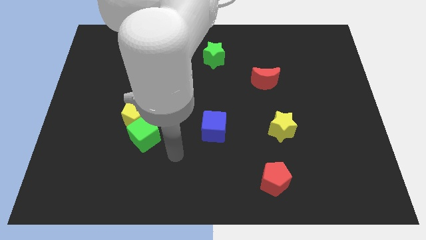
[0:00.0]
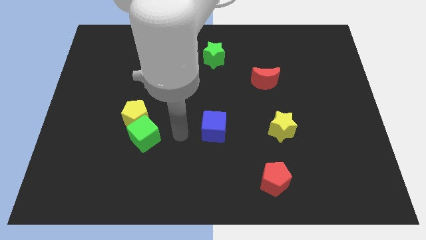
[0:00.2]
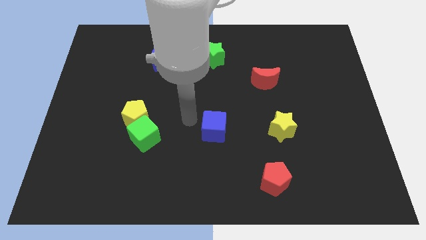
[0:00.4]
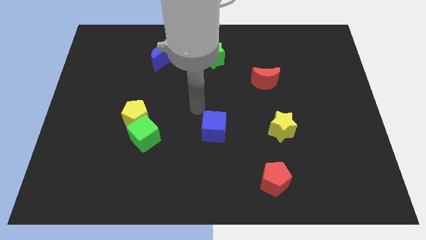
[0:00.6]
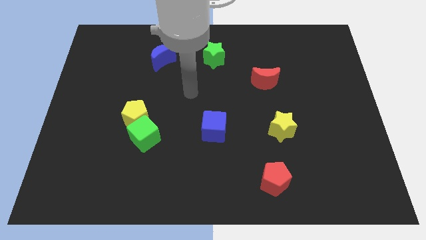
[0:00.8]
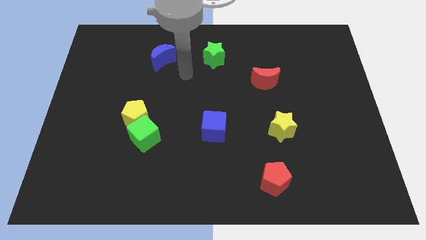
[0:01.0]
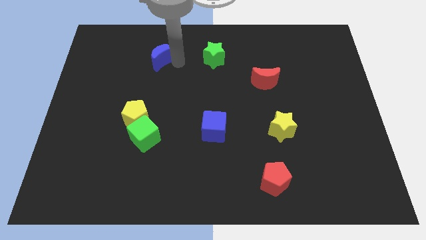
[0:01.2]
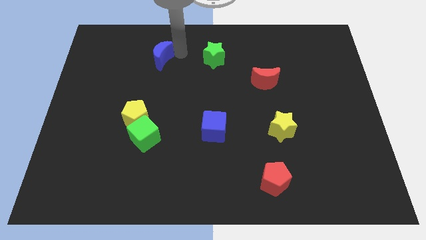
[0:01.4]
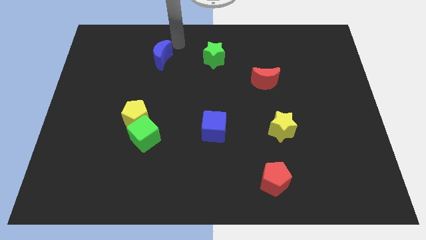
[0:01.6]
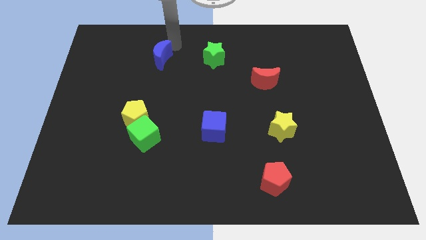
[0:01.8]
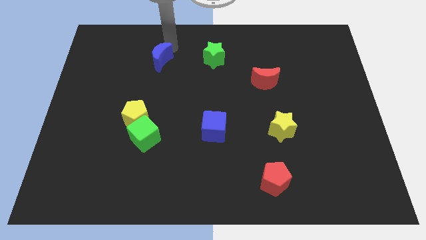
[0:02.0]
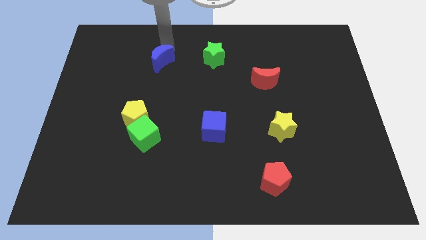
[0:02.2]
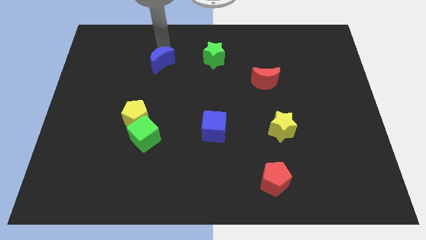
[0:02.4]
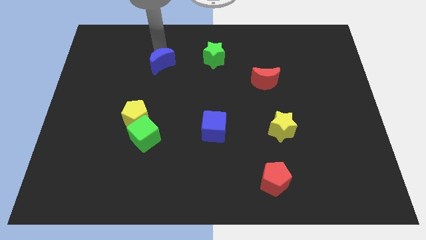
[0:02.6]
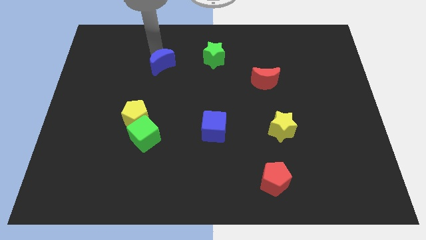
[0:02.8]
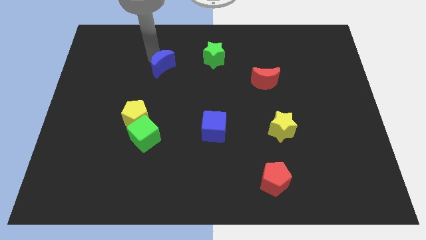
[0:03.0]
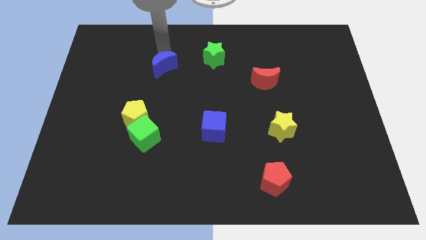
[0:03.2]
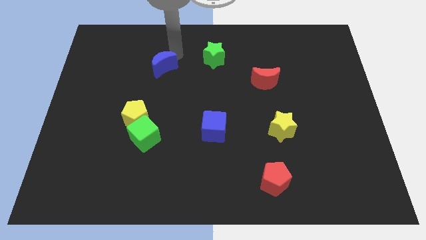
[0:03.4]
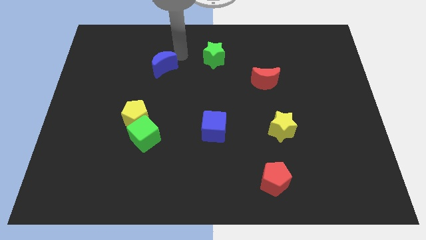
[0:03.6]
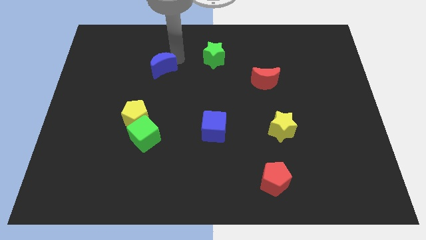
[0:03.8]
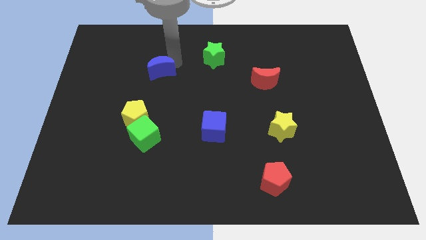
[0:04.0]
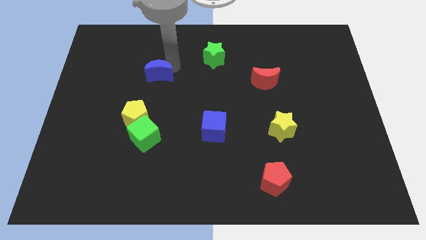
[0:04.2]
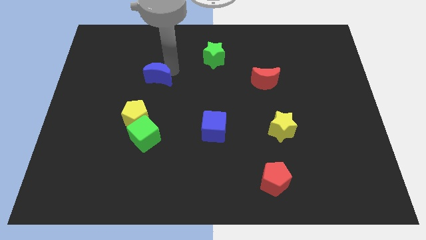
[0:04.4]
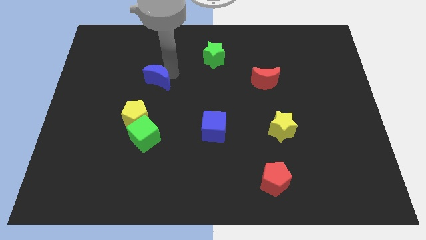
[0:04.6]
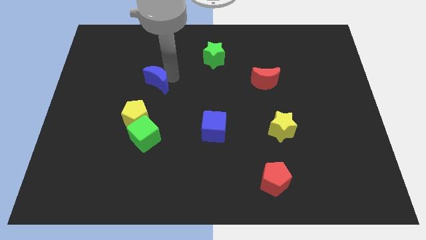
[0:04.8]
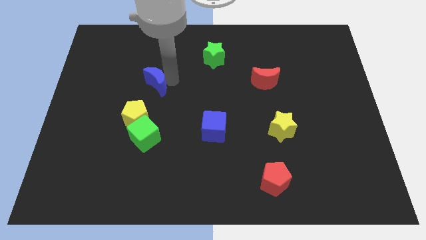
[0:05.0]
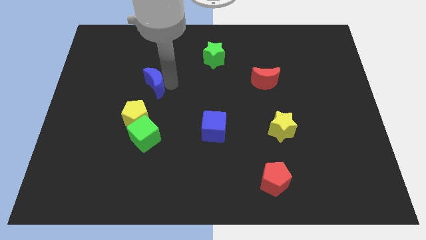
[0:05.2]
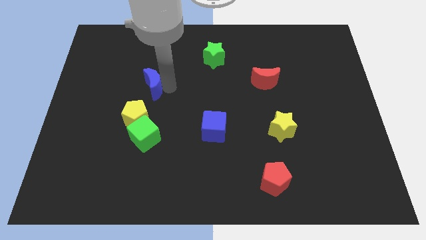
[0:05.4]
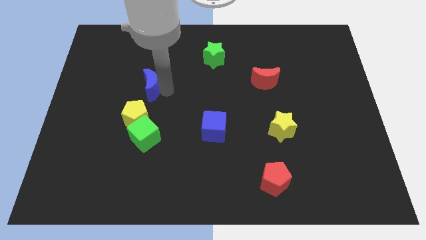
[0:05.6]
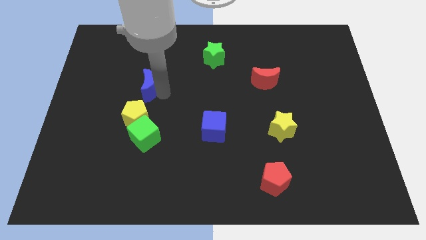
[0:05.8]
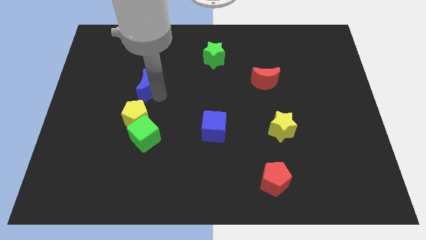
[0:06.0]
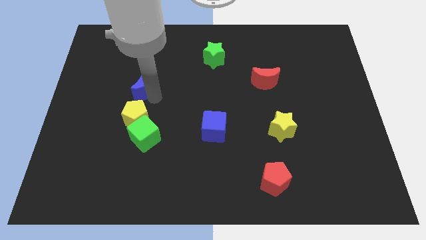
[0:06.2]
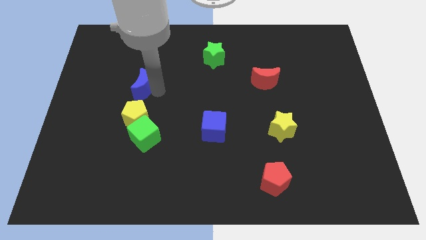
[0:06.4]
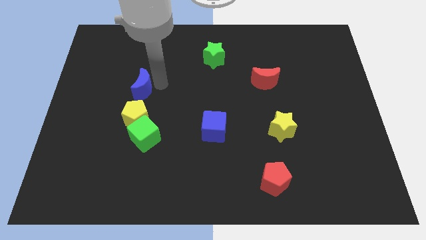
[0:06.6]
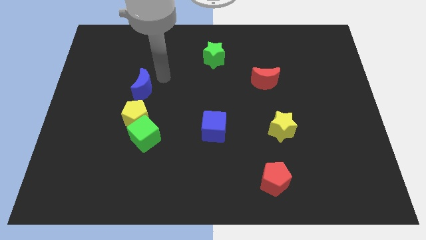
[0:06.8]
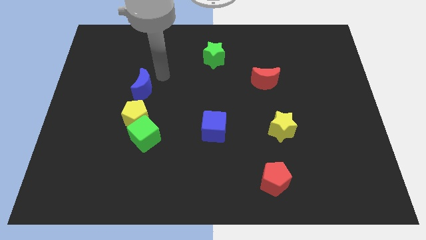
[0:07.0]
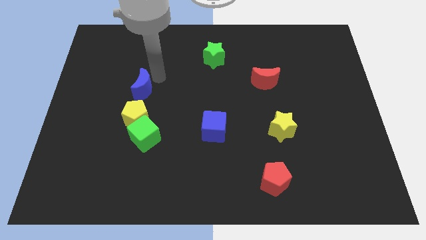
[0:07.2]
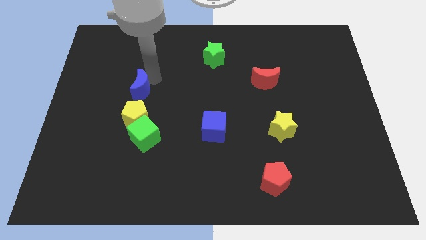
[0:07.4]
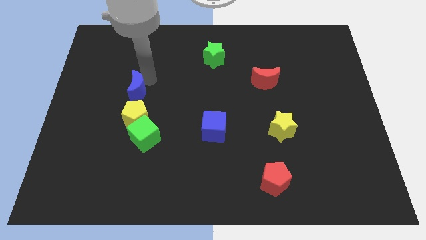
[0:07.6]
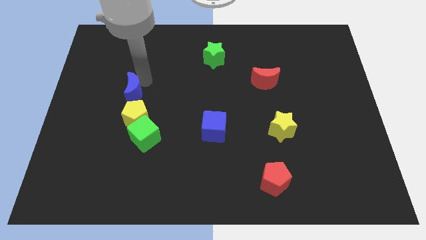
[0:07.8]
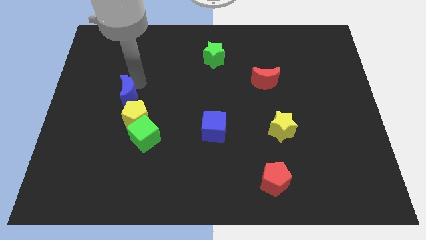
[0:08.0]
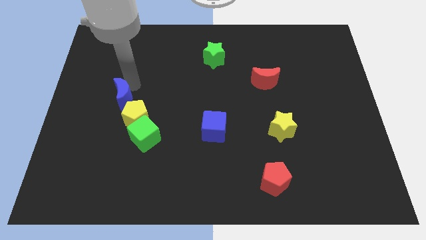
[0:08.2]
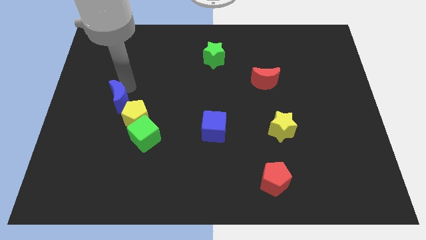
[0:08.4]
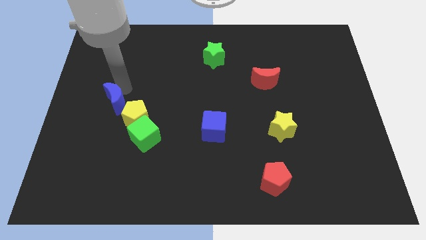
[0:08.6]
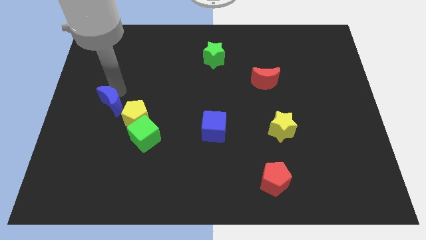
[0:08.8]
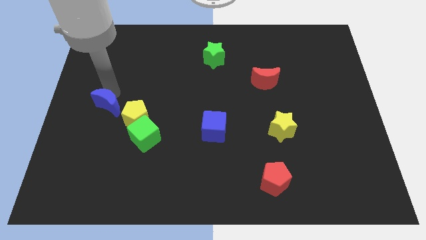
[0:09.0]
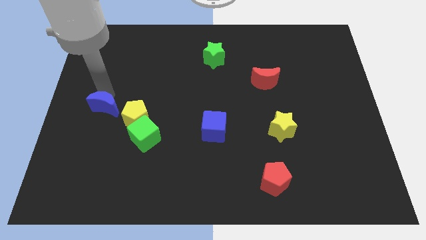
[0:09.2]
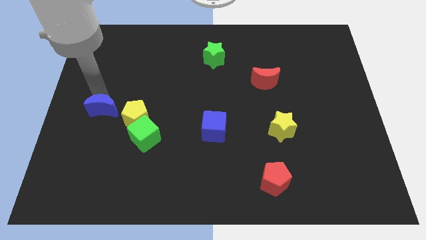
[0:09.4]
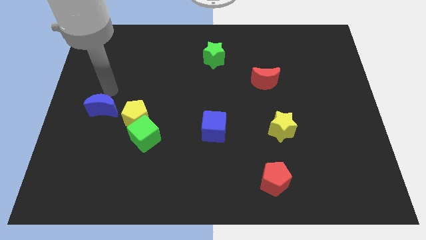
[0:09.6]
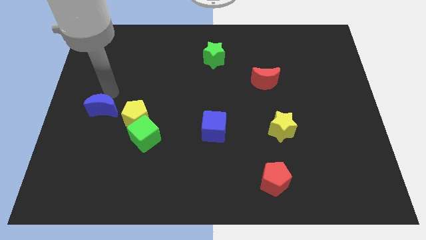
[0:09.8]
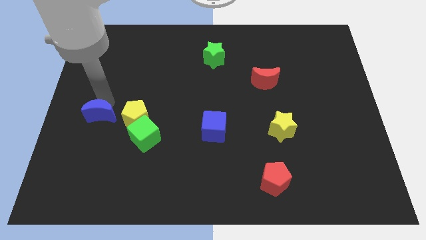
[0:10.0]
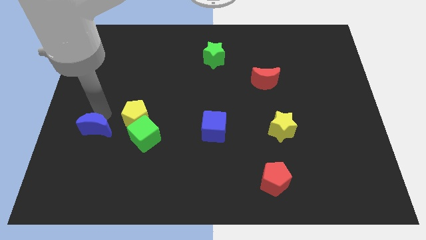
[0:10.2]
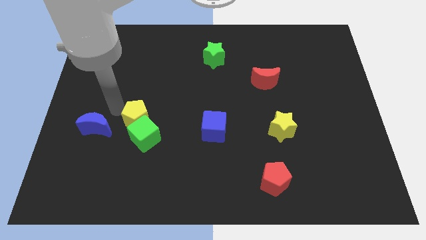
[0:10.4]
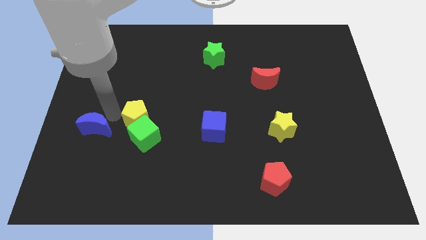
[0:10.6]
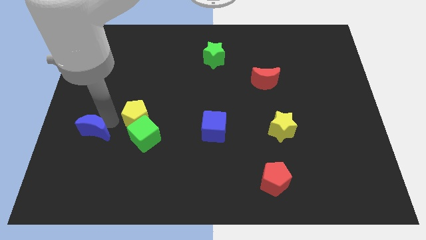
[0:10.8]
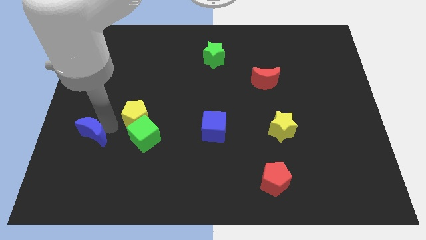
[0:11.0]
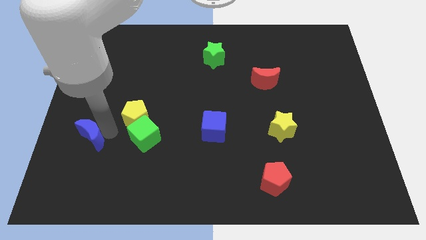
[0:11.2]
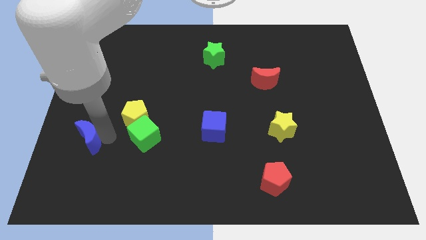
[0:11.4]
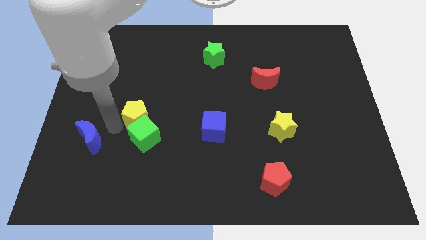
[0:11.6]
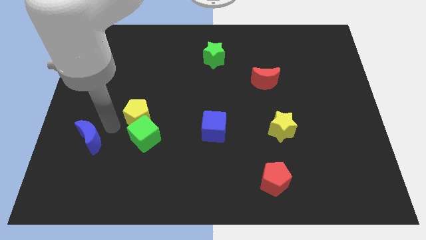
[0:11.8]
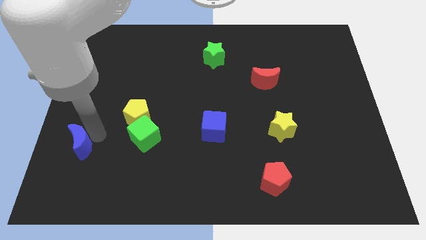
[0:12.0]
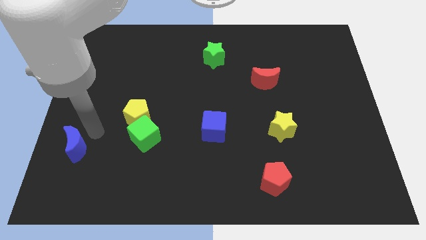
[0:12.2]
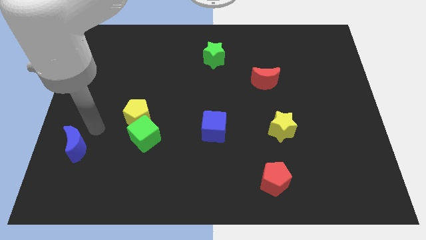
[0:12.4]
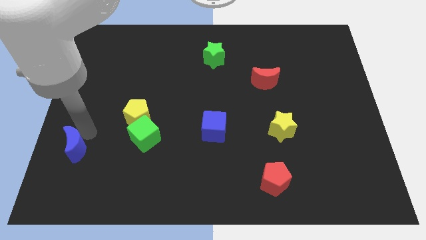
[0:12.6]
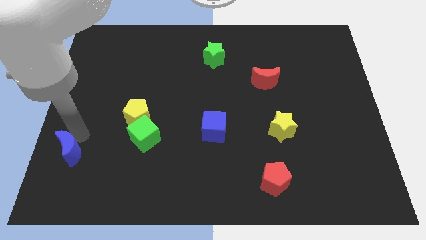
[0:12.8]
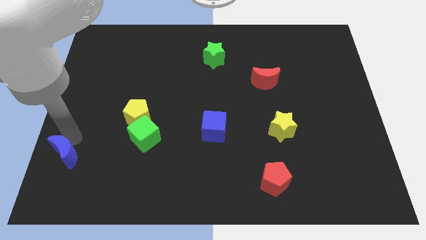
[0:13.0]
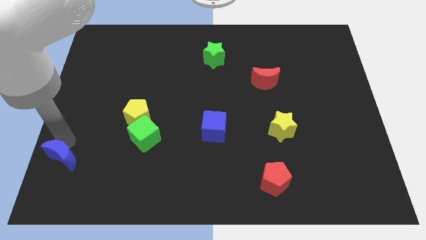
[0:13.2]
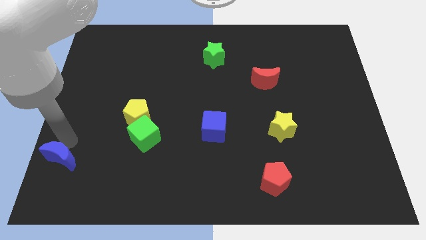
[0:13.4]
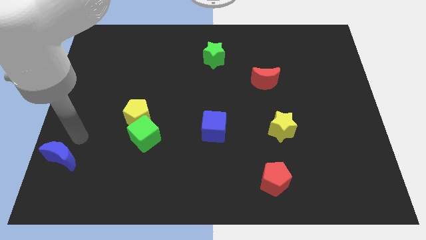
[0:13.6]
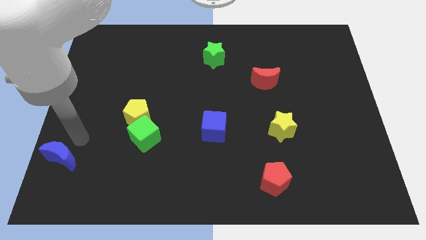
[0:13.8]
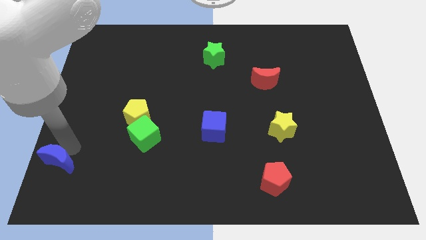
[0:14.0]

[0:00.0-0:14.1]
push the blue moon to the bottom left of the board

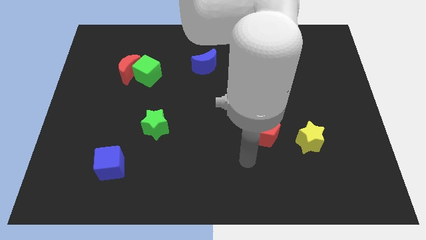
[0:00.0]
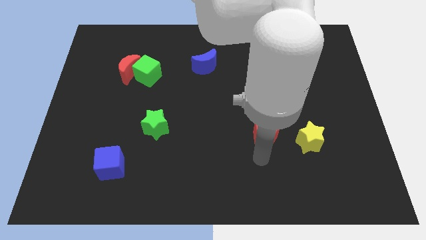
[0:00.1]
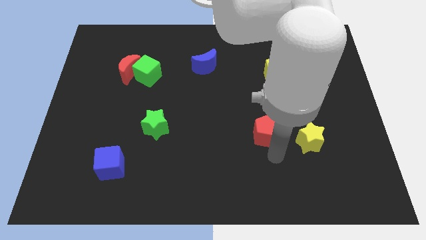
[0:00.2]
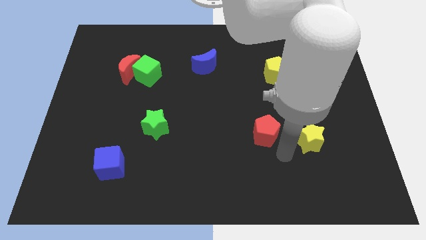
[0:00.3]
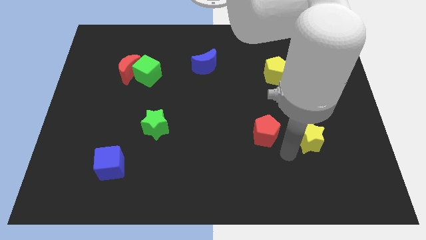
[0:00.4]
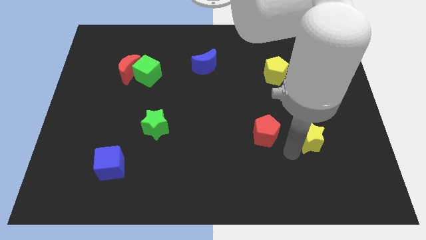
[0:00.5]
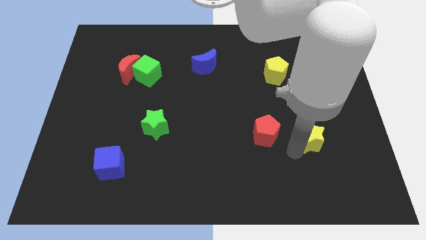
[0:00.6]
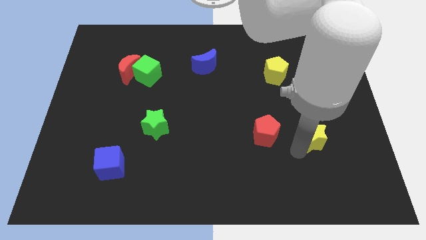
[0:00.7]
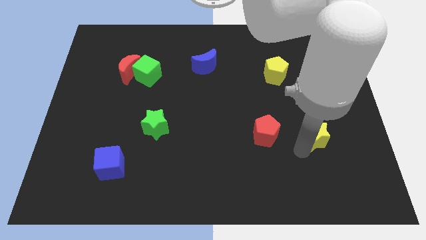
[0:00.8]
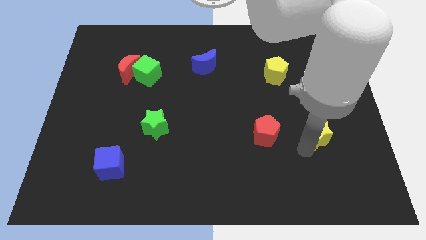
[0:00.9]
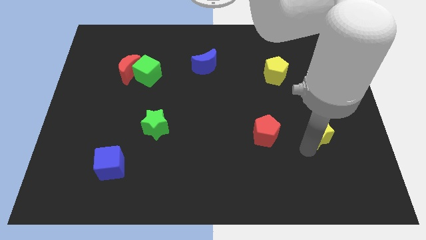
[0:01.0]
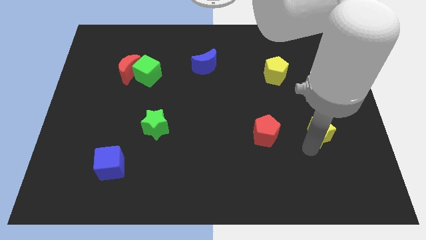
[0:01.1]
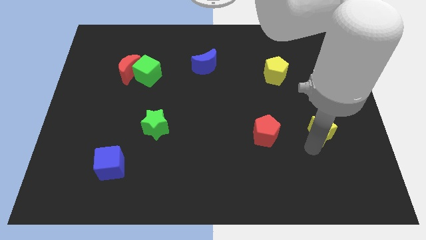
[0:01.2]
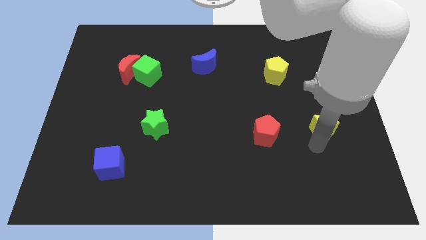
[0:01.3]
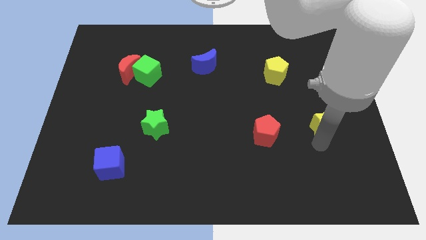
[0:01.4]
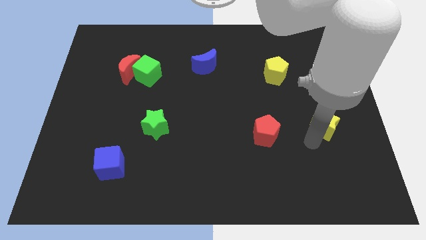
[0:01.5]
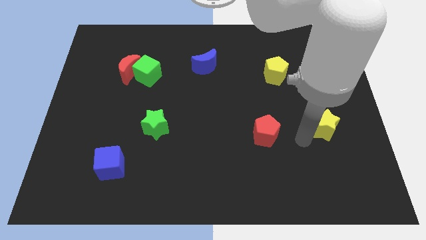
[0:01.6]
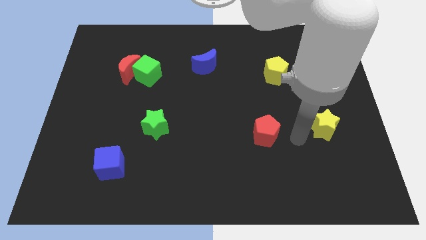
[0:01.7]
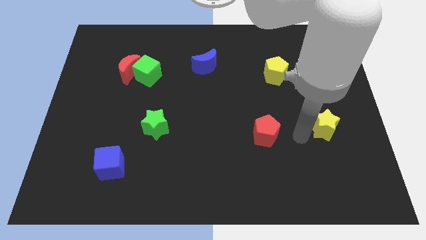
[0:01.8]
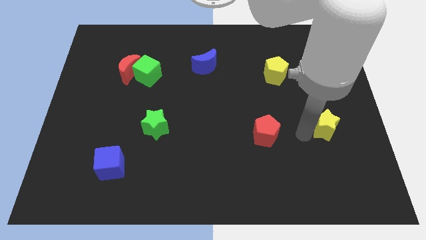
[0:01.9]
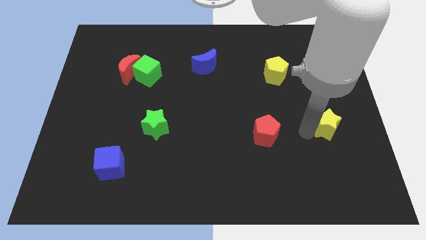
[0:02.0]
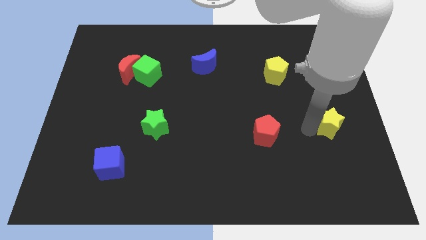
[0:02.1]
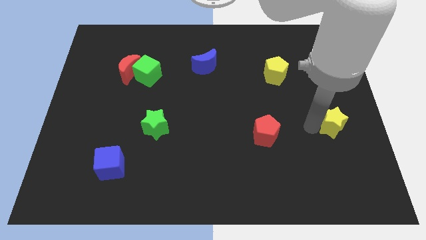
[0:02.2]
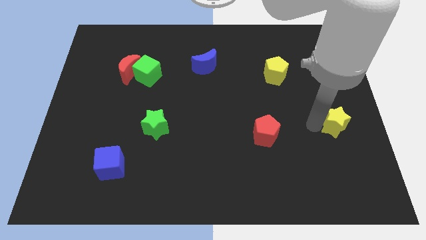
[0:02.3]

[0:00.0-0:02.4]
slide the yellow star to the right side of the board
